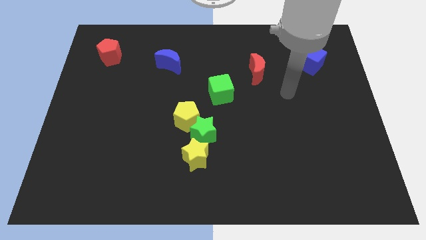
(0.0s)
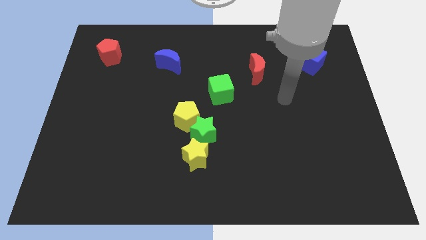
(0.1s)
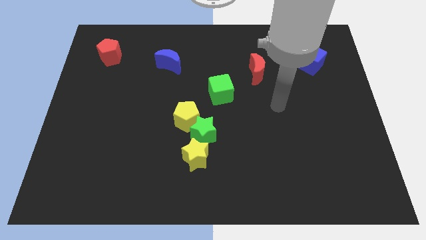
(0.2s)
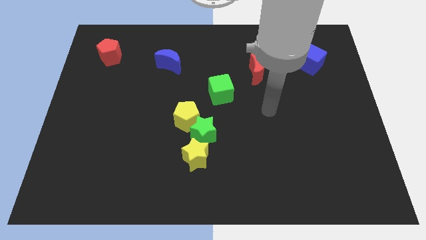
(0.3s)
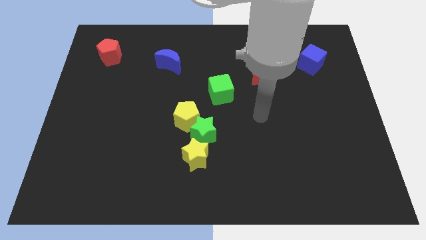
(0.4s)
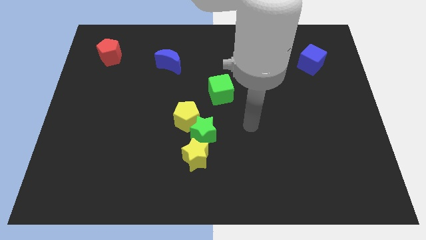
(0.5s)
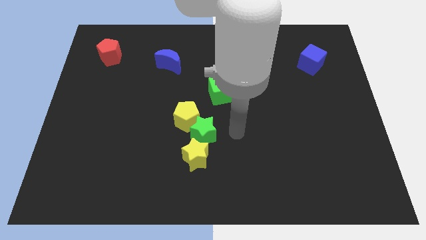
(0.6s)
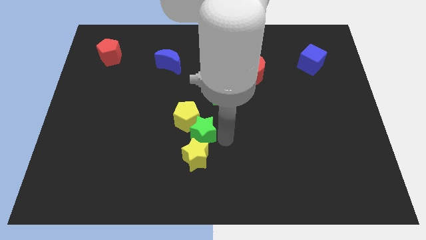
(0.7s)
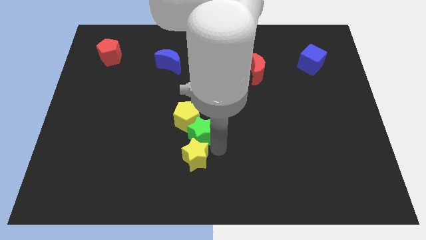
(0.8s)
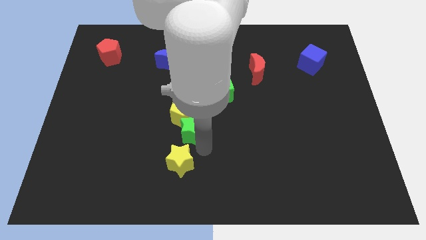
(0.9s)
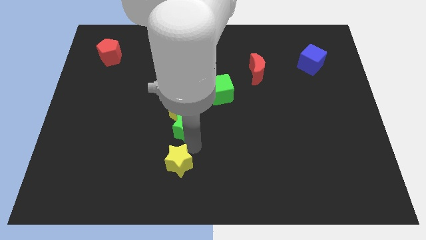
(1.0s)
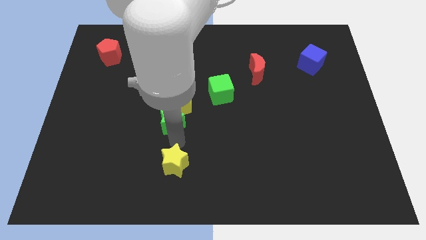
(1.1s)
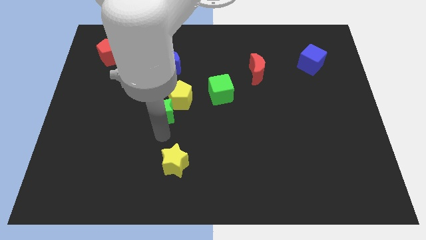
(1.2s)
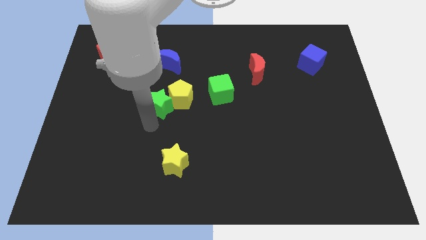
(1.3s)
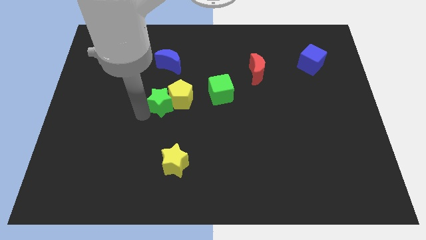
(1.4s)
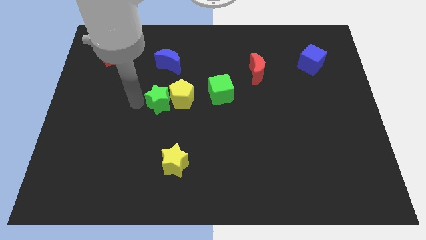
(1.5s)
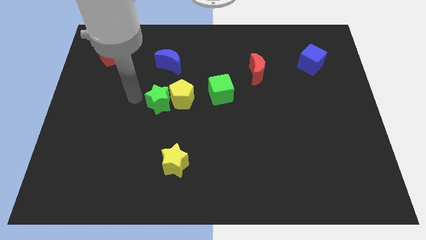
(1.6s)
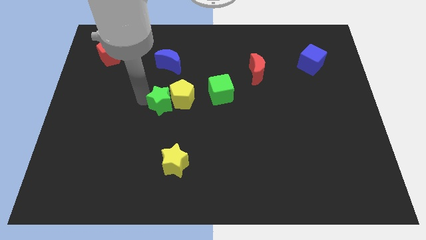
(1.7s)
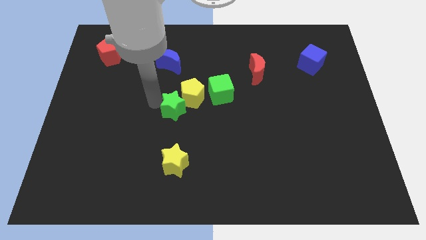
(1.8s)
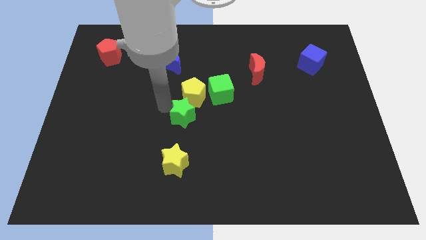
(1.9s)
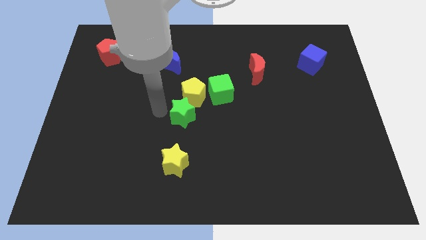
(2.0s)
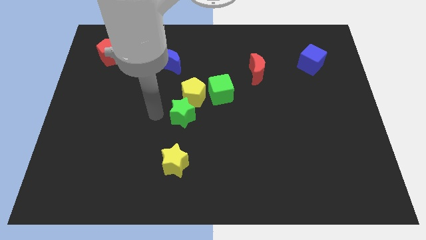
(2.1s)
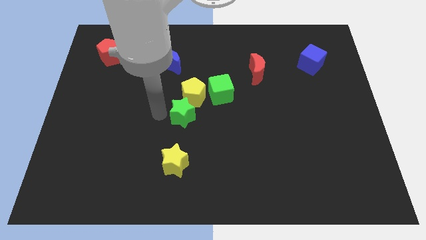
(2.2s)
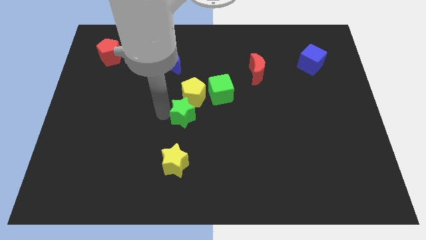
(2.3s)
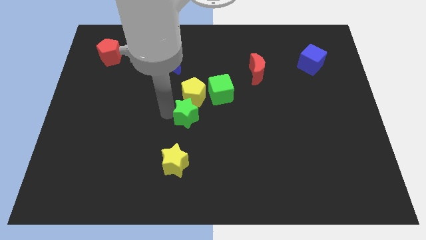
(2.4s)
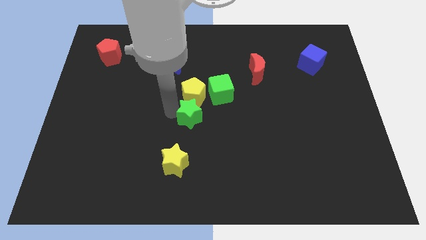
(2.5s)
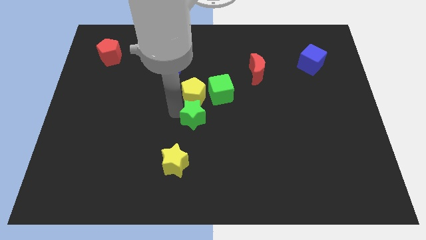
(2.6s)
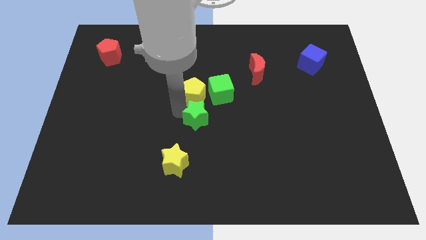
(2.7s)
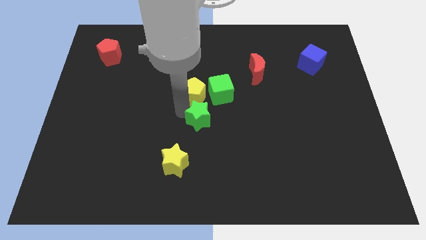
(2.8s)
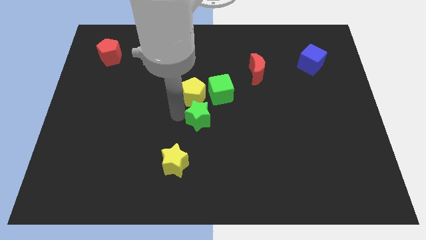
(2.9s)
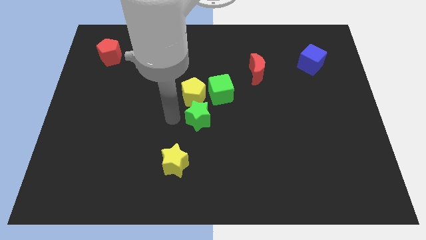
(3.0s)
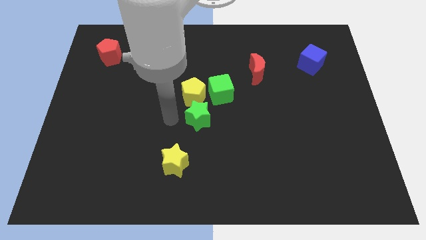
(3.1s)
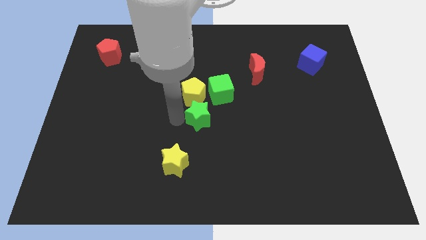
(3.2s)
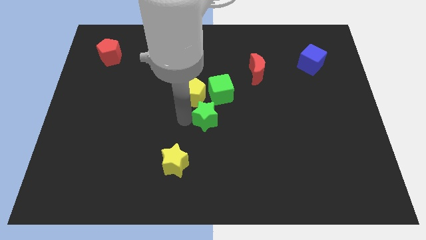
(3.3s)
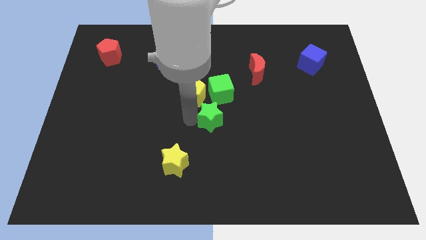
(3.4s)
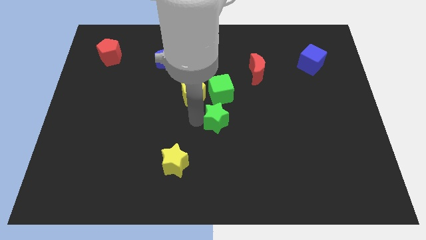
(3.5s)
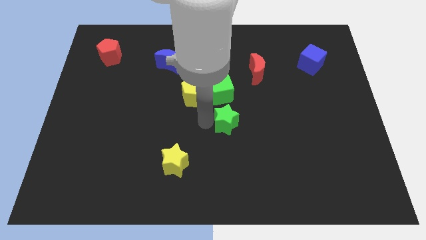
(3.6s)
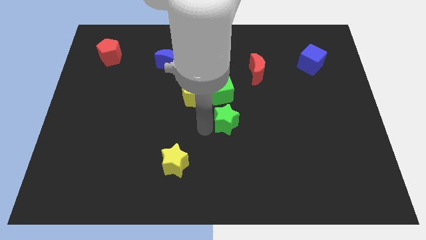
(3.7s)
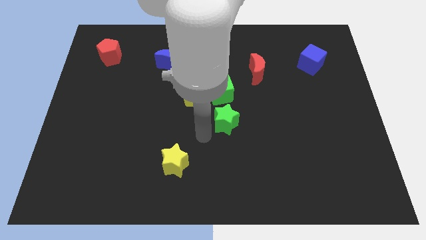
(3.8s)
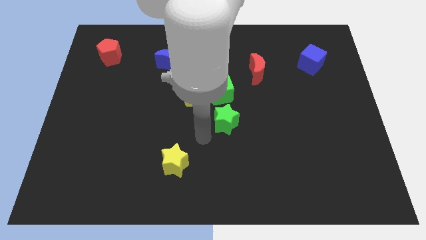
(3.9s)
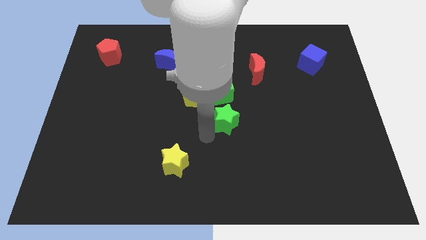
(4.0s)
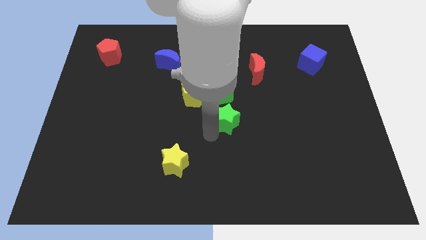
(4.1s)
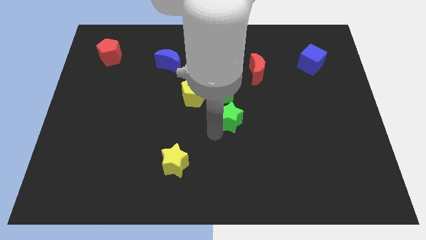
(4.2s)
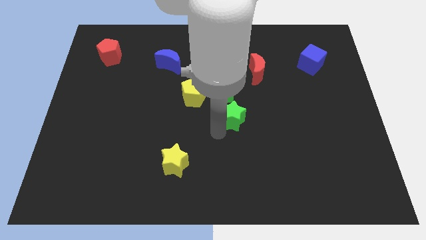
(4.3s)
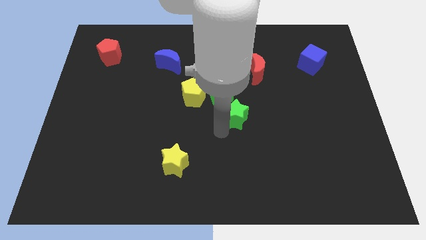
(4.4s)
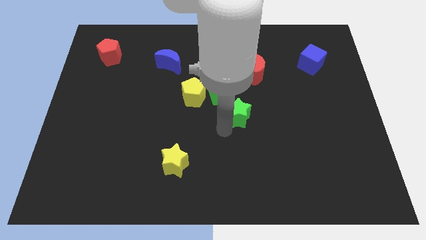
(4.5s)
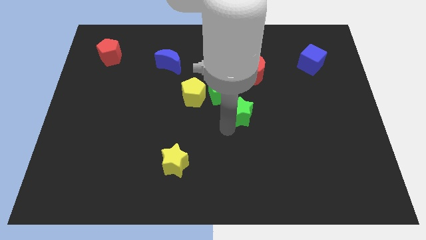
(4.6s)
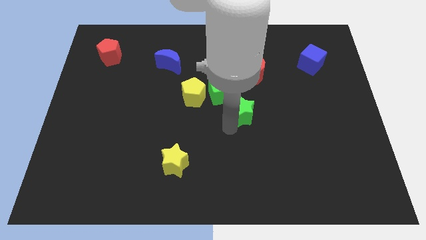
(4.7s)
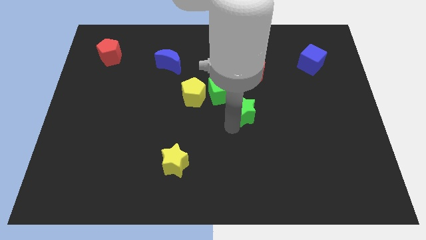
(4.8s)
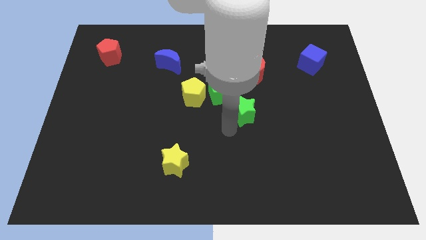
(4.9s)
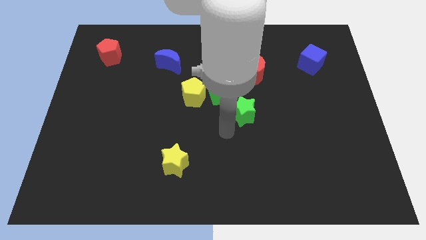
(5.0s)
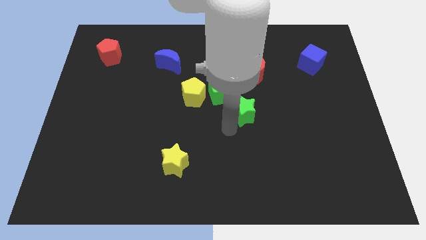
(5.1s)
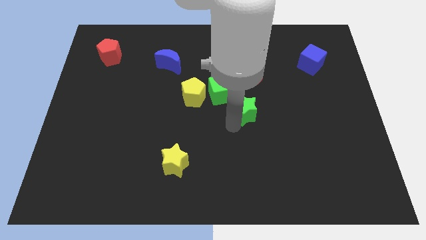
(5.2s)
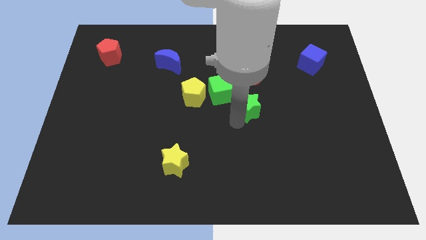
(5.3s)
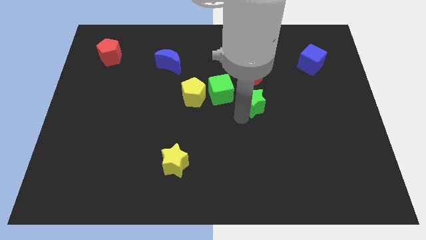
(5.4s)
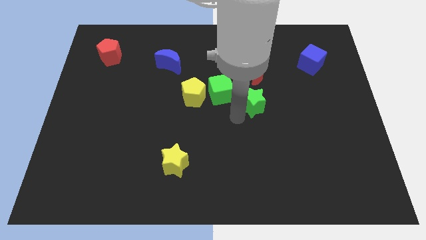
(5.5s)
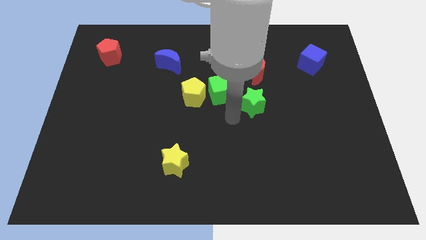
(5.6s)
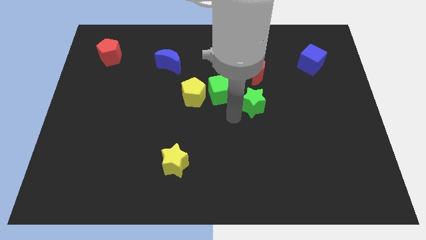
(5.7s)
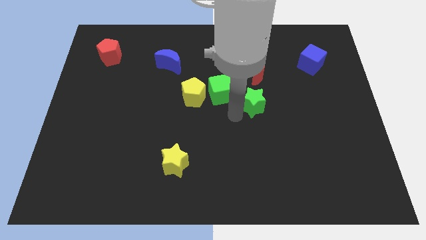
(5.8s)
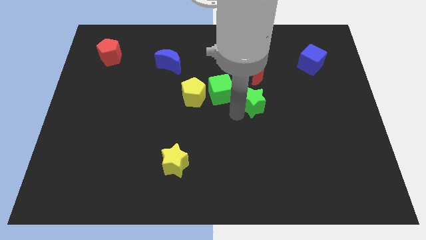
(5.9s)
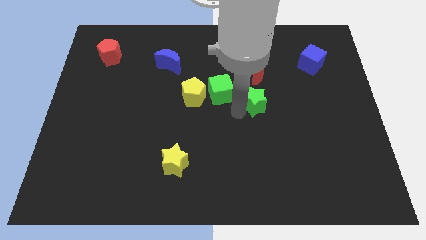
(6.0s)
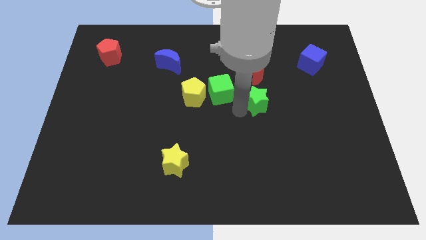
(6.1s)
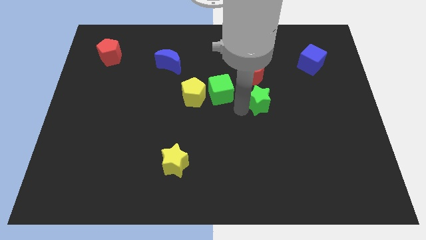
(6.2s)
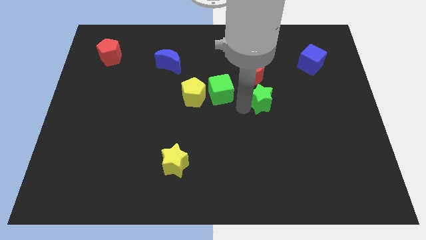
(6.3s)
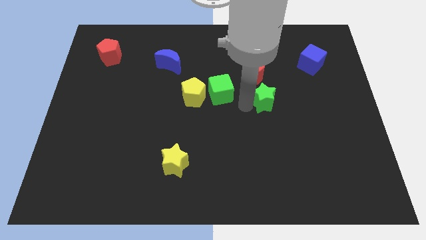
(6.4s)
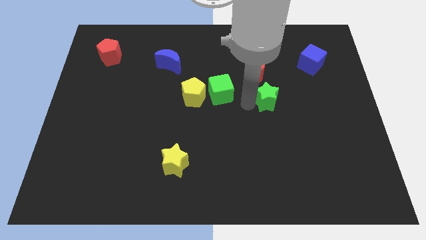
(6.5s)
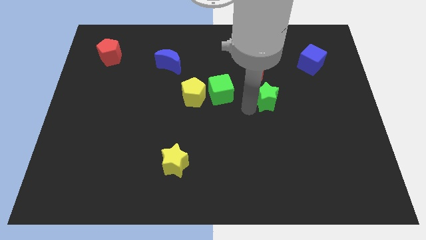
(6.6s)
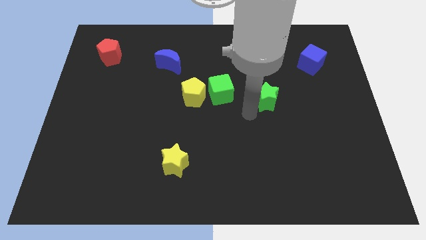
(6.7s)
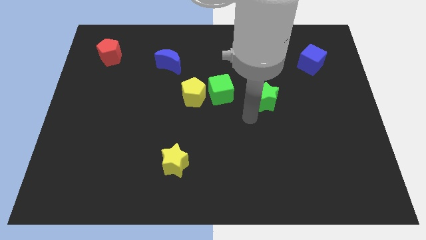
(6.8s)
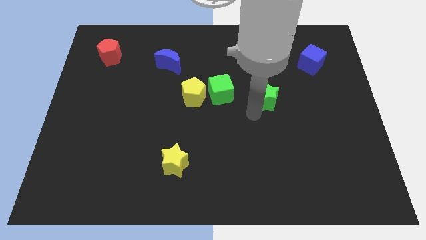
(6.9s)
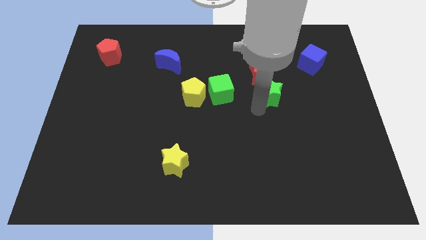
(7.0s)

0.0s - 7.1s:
move the green star diagonally down and to the right of the red moon
